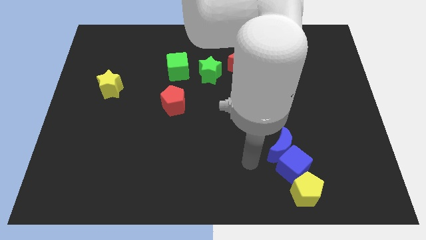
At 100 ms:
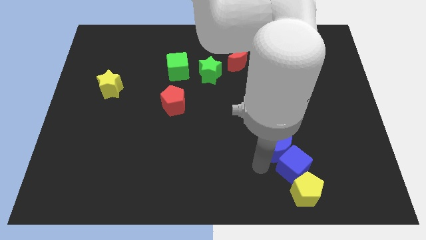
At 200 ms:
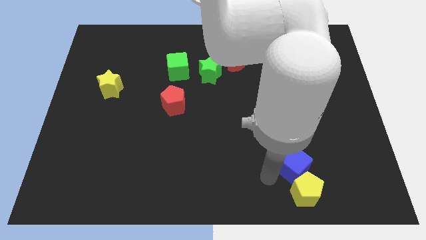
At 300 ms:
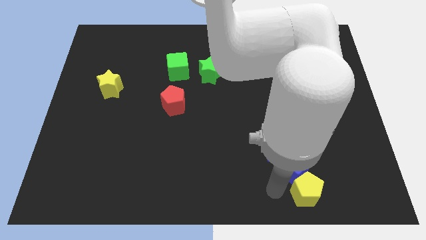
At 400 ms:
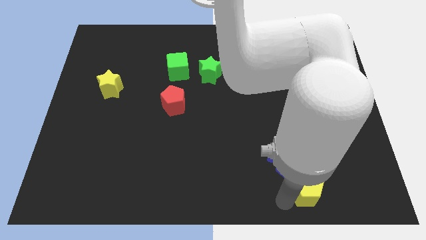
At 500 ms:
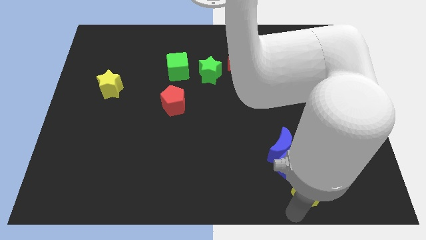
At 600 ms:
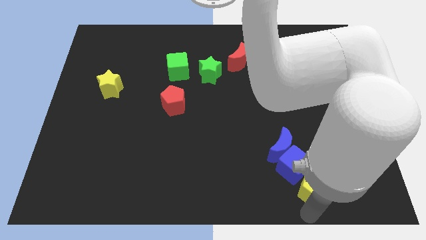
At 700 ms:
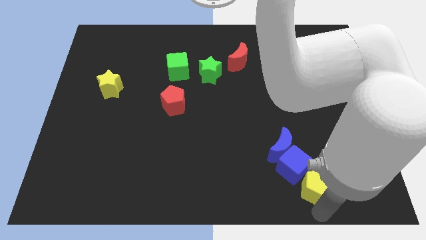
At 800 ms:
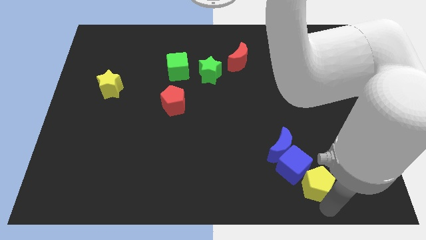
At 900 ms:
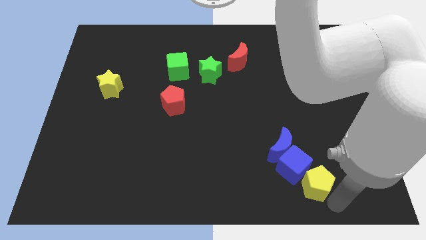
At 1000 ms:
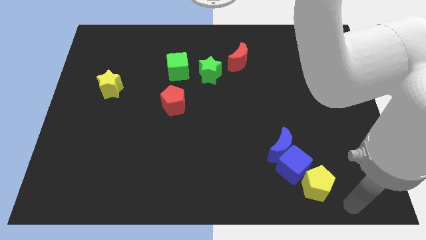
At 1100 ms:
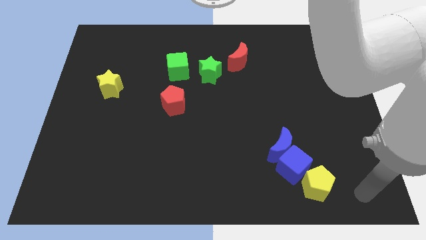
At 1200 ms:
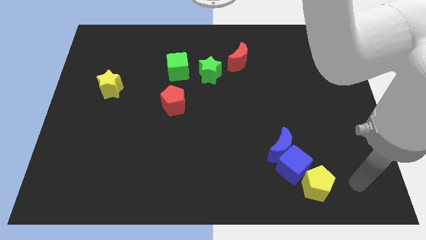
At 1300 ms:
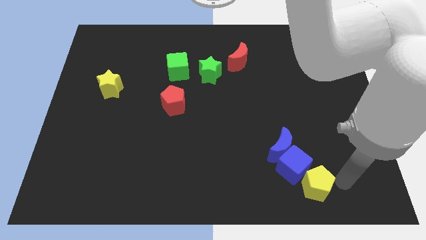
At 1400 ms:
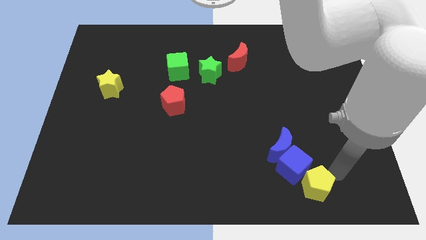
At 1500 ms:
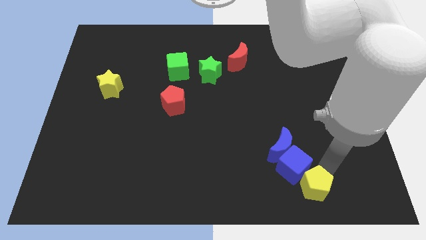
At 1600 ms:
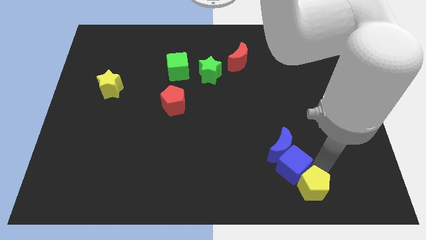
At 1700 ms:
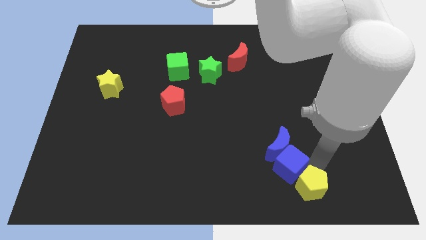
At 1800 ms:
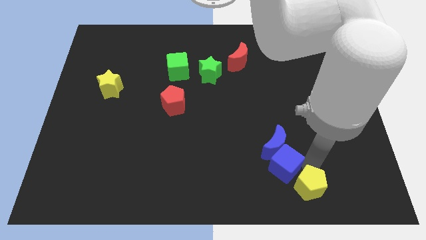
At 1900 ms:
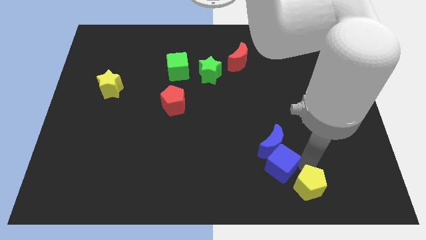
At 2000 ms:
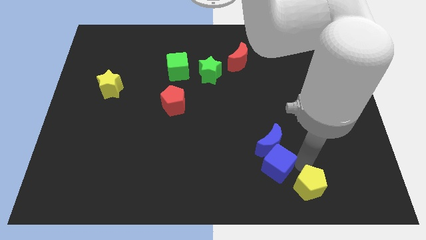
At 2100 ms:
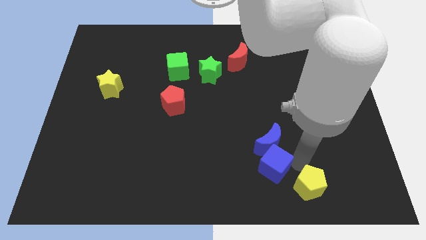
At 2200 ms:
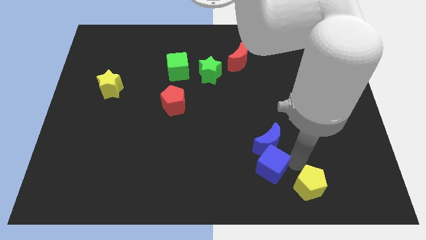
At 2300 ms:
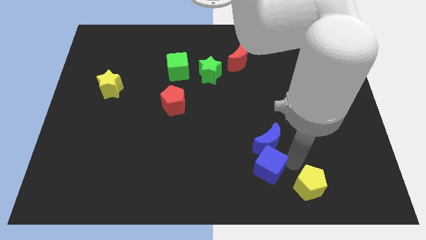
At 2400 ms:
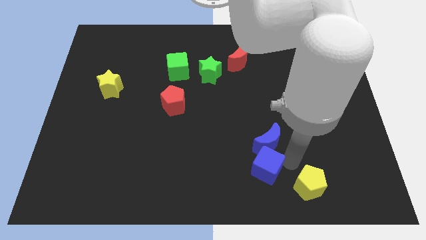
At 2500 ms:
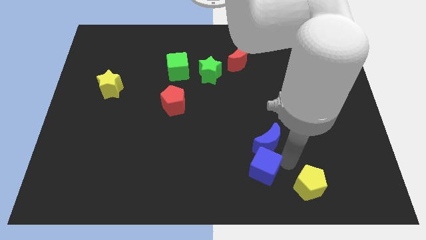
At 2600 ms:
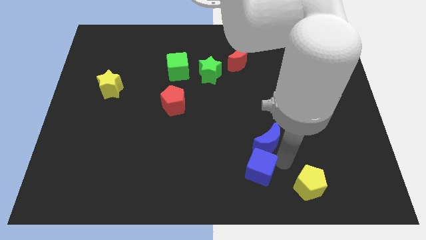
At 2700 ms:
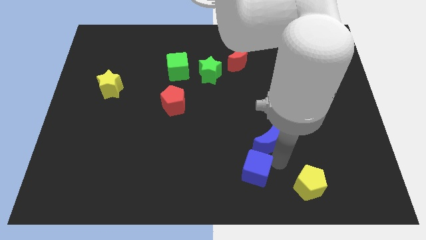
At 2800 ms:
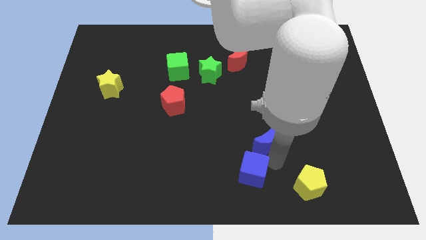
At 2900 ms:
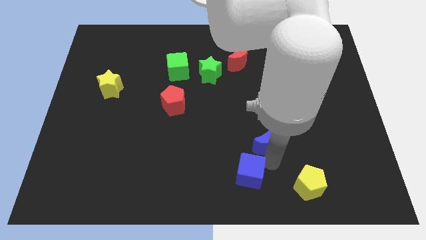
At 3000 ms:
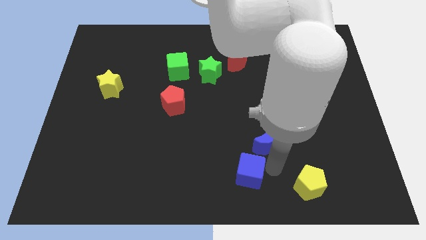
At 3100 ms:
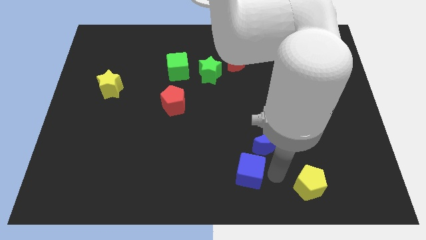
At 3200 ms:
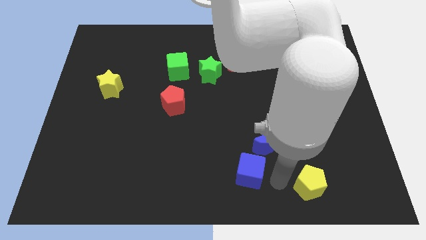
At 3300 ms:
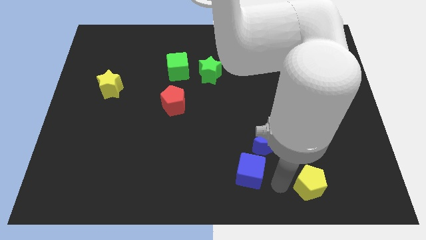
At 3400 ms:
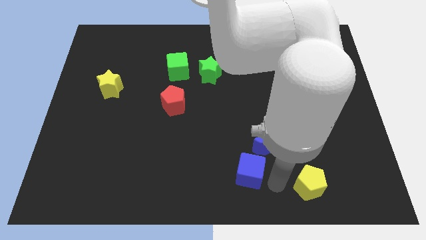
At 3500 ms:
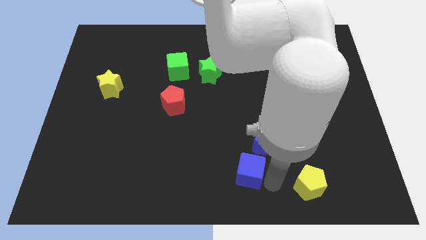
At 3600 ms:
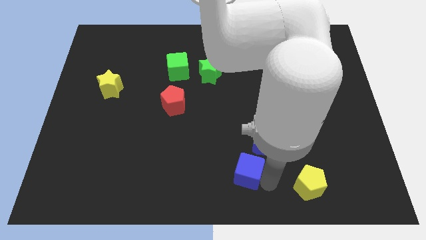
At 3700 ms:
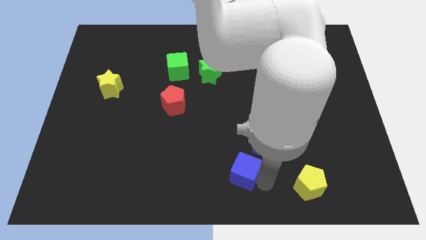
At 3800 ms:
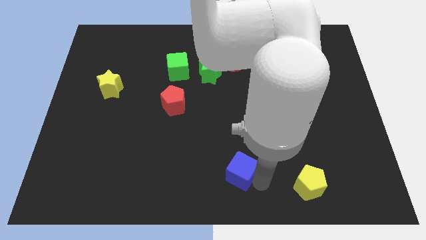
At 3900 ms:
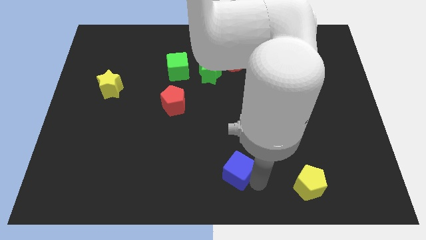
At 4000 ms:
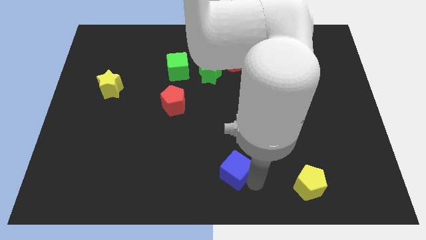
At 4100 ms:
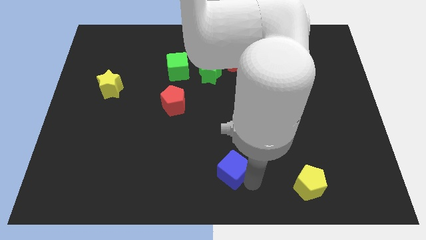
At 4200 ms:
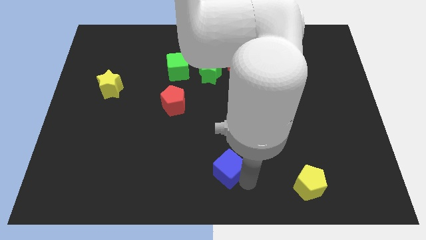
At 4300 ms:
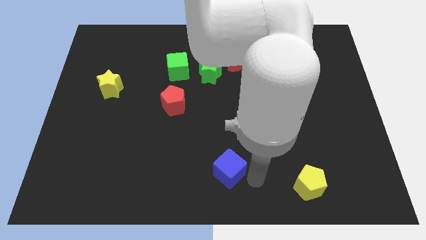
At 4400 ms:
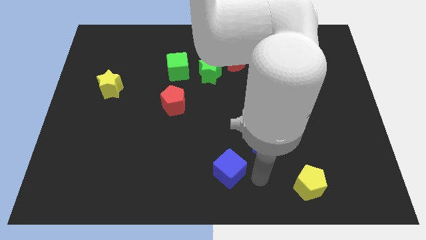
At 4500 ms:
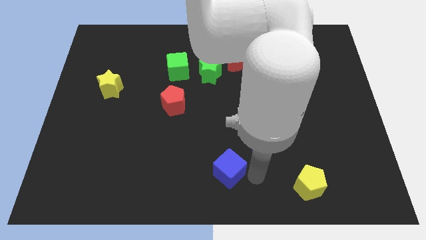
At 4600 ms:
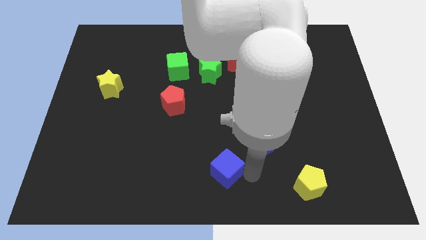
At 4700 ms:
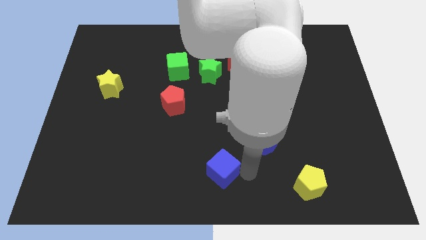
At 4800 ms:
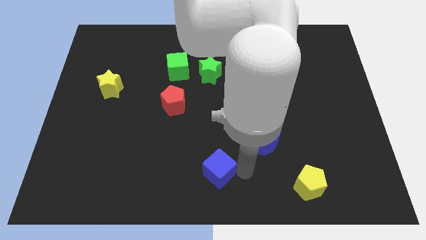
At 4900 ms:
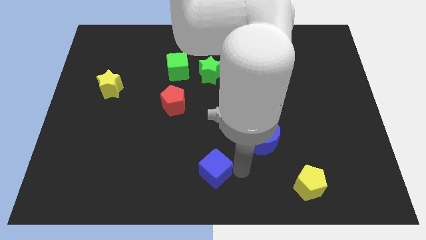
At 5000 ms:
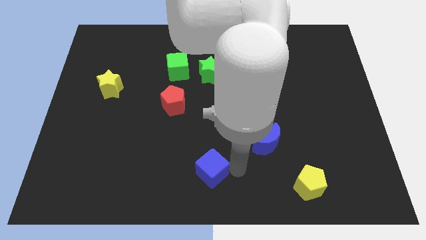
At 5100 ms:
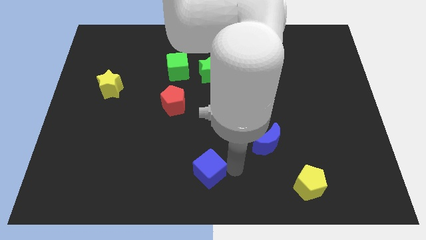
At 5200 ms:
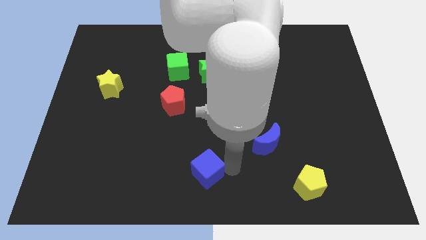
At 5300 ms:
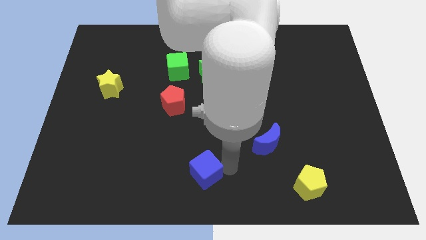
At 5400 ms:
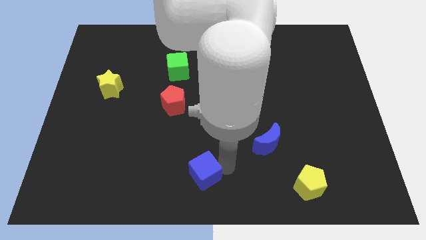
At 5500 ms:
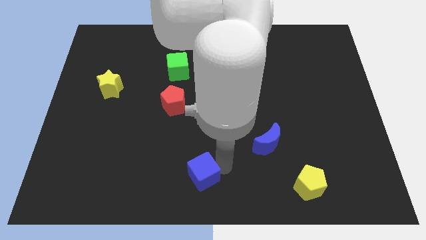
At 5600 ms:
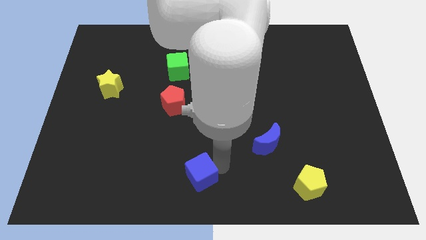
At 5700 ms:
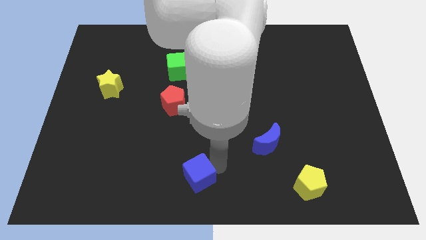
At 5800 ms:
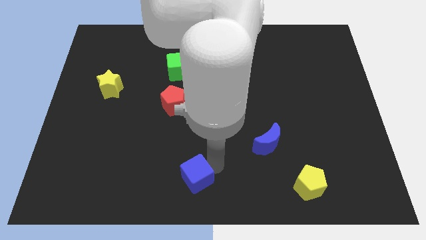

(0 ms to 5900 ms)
push the blue cube to the left

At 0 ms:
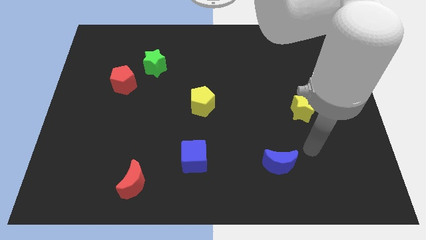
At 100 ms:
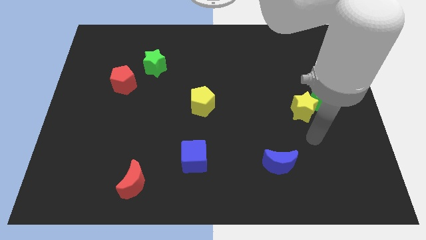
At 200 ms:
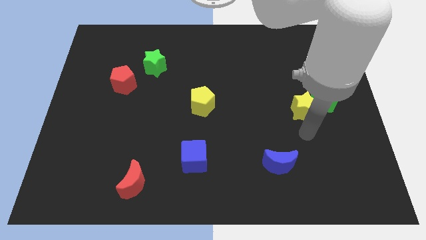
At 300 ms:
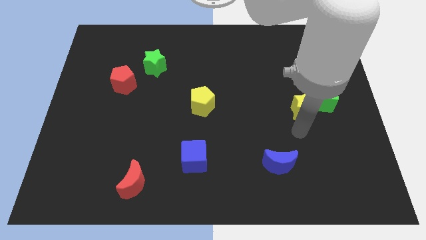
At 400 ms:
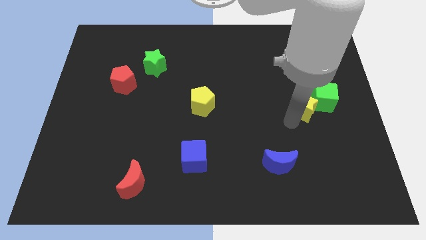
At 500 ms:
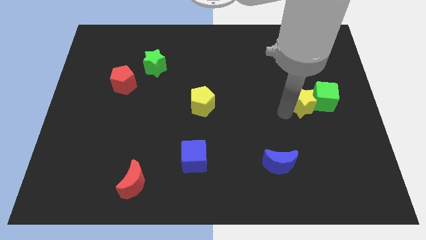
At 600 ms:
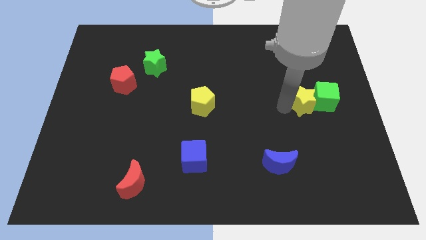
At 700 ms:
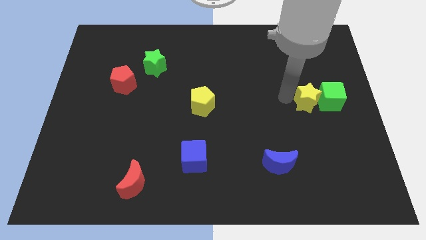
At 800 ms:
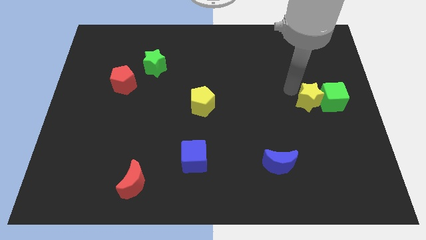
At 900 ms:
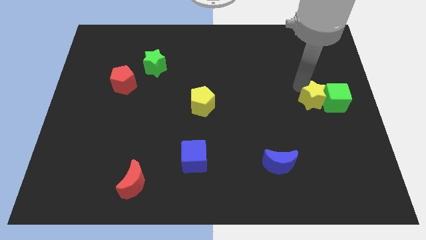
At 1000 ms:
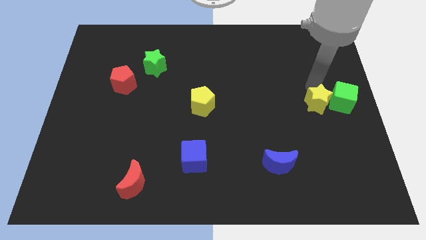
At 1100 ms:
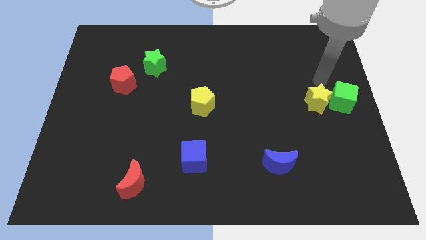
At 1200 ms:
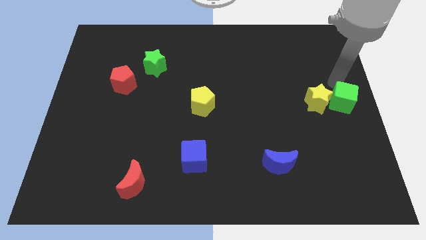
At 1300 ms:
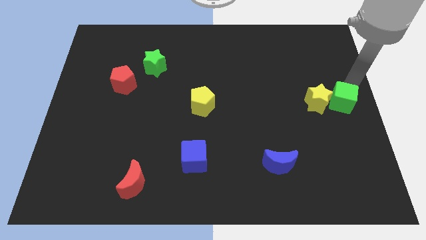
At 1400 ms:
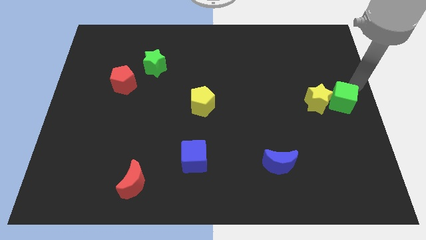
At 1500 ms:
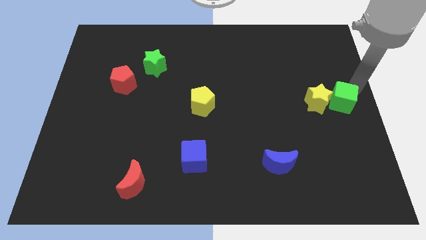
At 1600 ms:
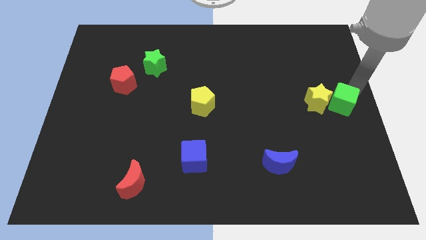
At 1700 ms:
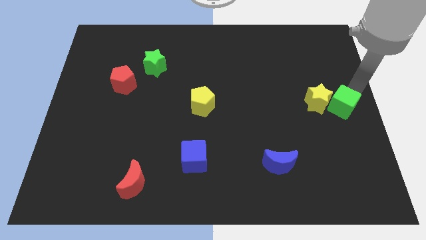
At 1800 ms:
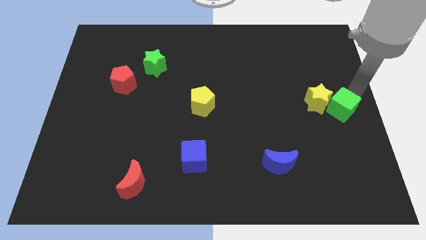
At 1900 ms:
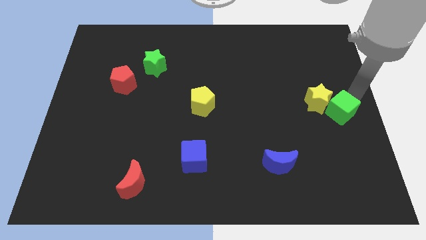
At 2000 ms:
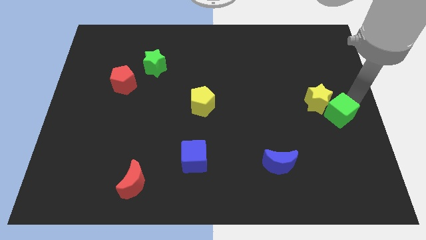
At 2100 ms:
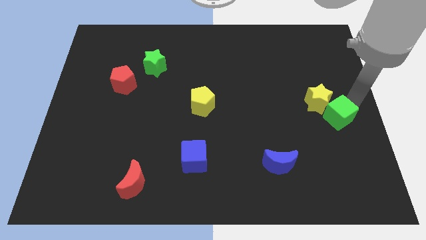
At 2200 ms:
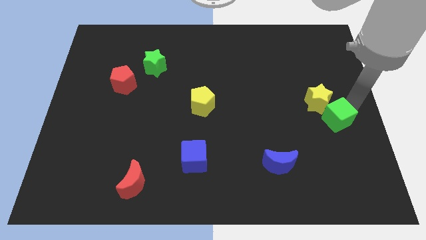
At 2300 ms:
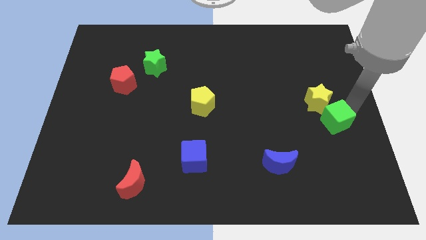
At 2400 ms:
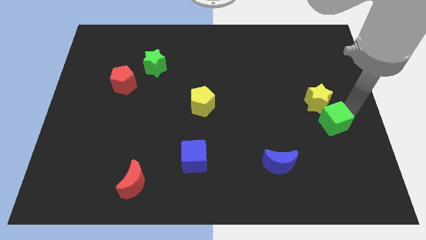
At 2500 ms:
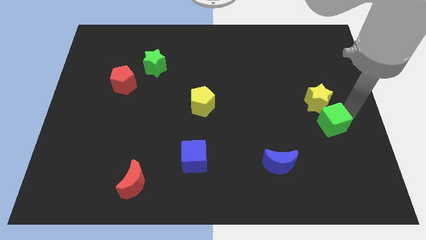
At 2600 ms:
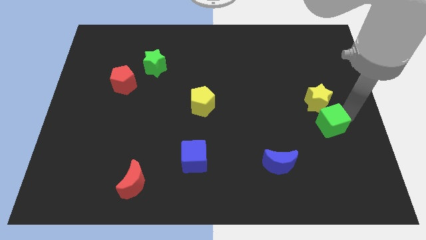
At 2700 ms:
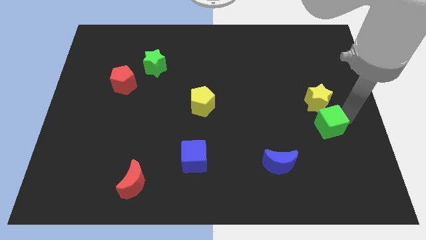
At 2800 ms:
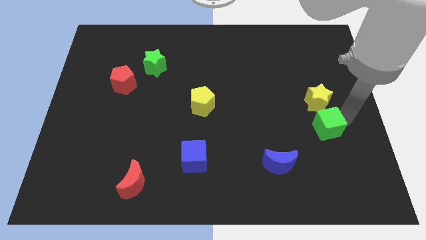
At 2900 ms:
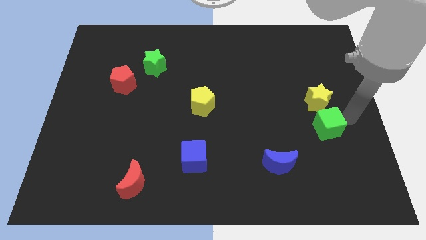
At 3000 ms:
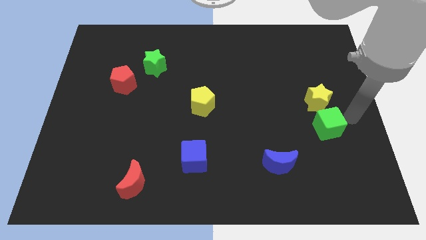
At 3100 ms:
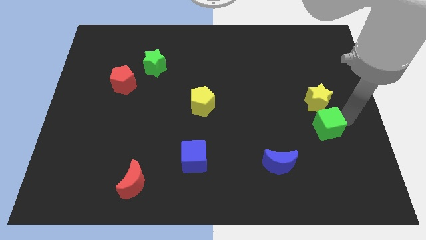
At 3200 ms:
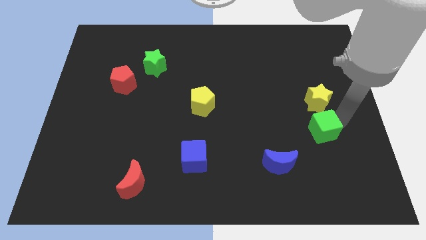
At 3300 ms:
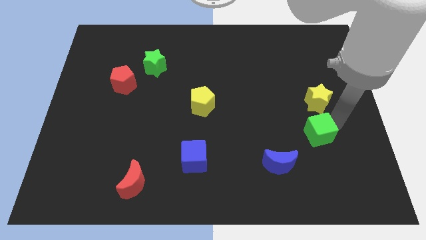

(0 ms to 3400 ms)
move the green cube a bit diagonally downwards and to the left
